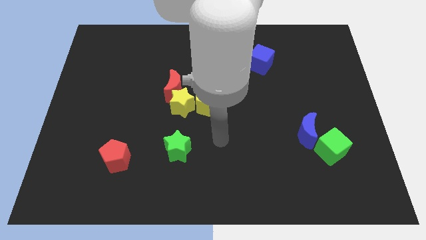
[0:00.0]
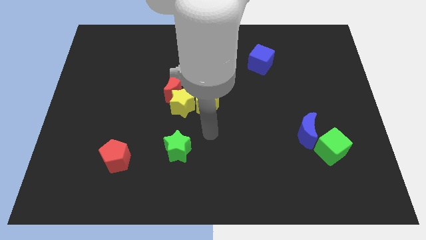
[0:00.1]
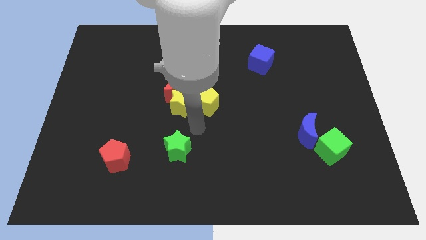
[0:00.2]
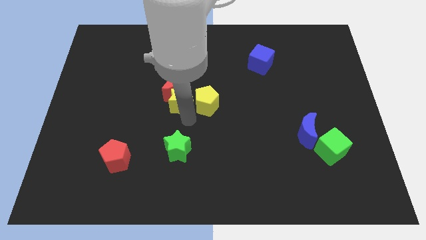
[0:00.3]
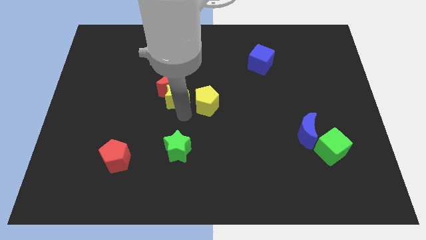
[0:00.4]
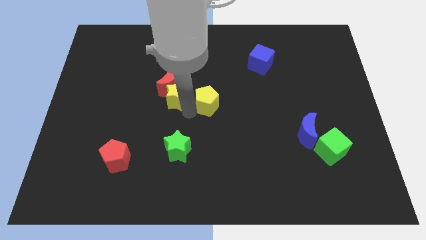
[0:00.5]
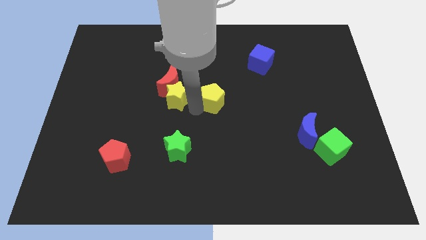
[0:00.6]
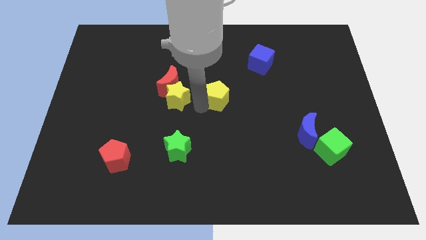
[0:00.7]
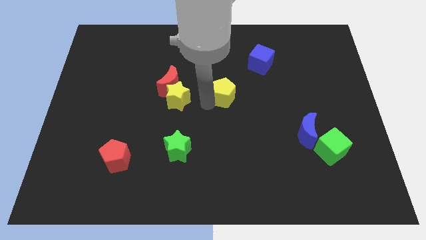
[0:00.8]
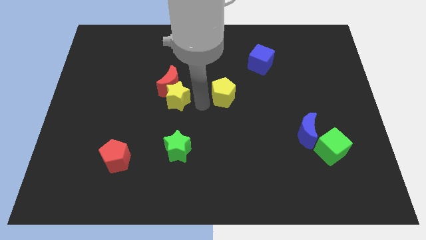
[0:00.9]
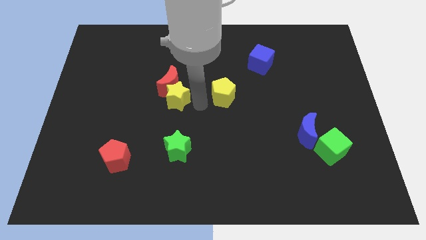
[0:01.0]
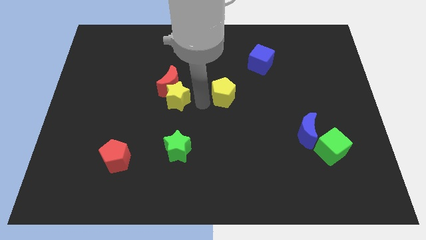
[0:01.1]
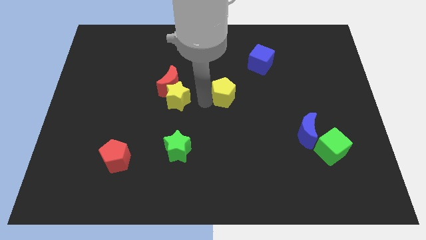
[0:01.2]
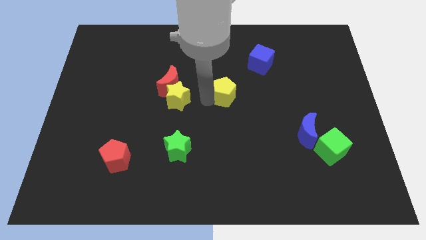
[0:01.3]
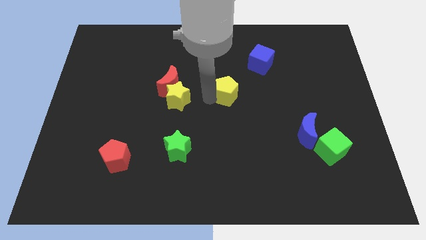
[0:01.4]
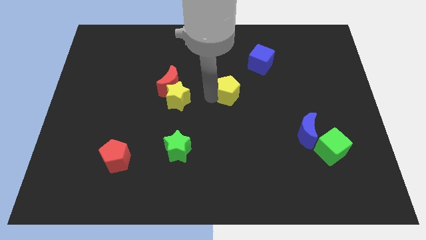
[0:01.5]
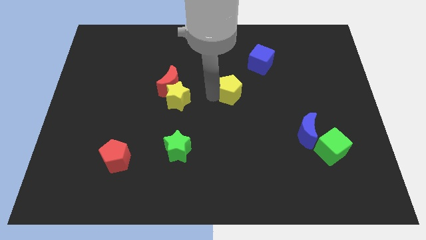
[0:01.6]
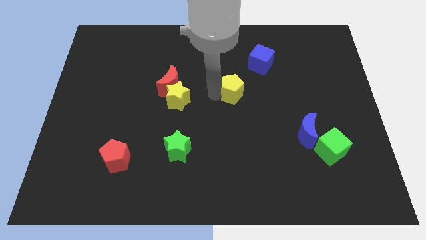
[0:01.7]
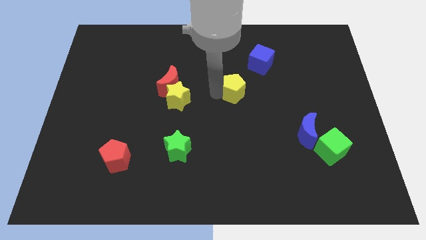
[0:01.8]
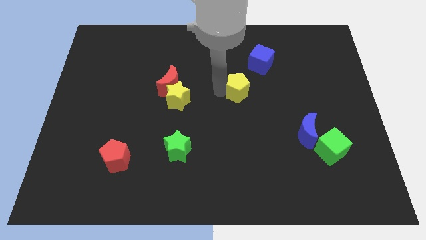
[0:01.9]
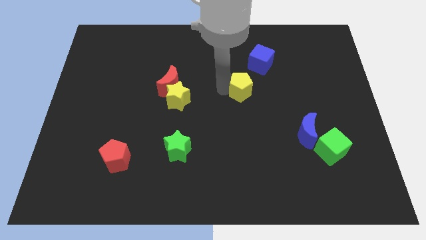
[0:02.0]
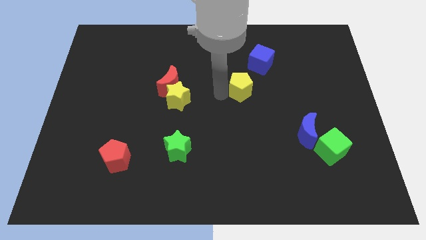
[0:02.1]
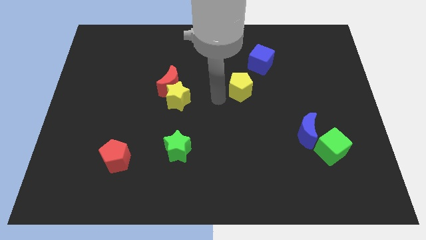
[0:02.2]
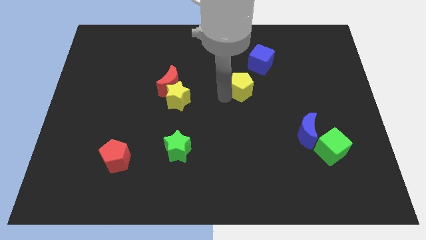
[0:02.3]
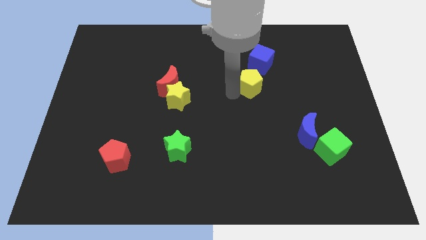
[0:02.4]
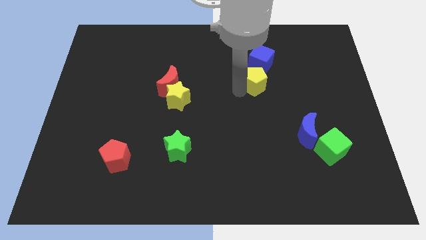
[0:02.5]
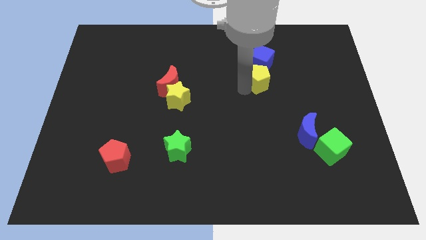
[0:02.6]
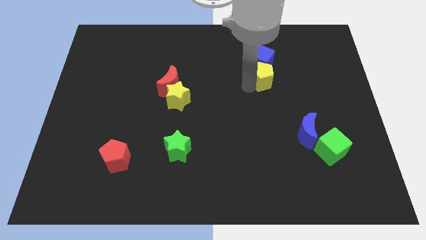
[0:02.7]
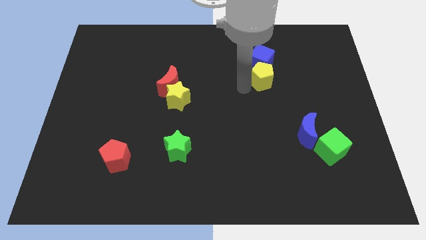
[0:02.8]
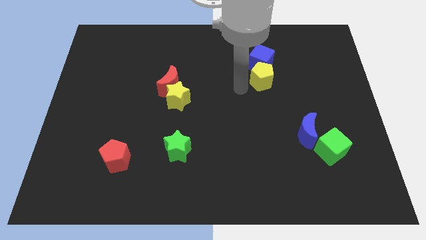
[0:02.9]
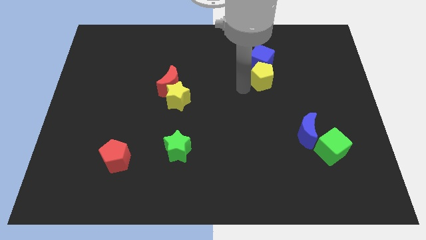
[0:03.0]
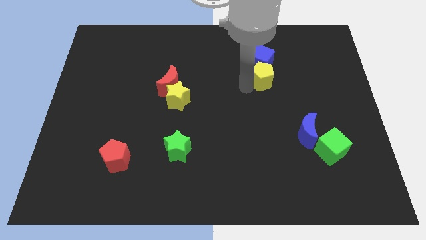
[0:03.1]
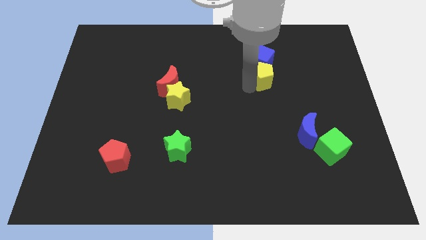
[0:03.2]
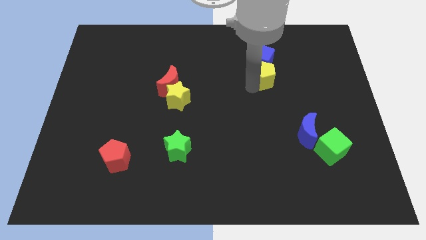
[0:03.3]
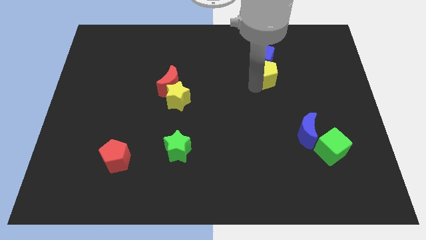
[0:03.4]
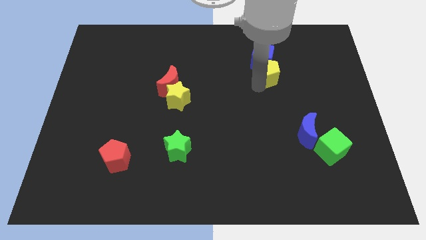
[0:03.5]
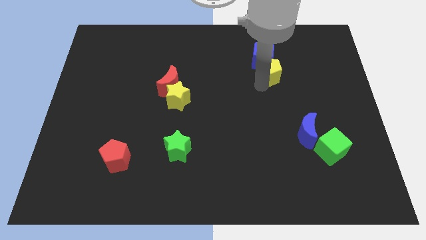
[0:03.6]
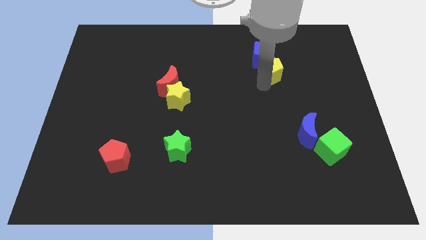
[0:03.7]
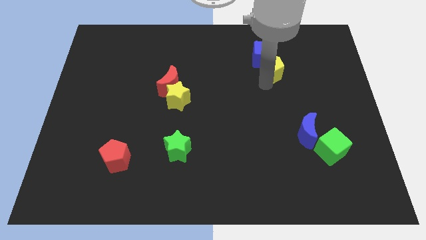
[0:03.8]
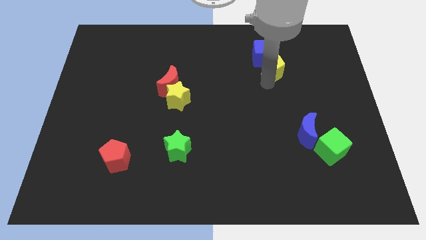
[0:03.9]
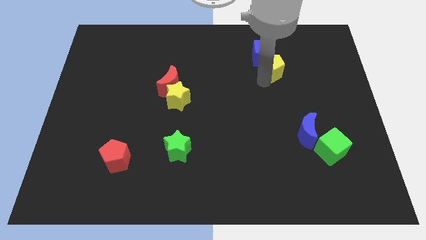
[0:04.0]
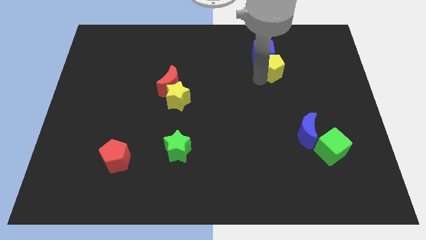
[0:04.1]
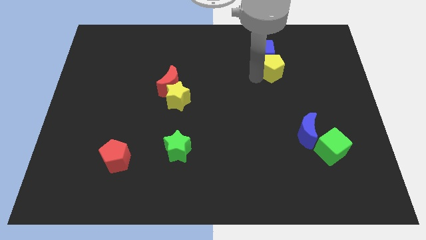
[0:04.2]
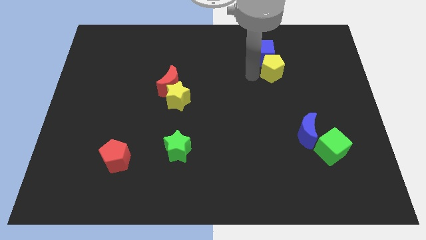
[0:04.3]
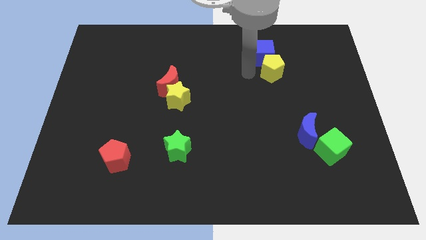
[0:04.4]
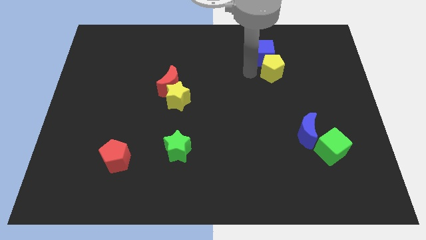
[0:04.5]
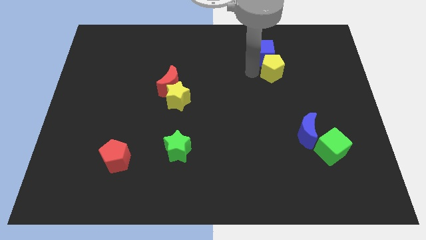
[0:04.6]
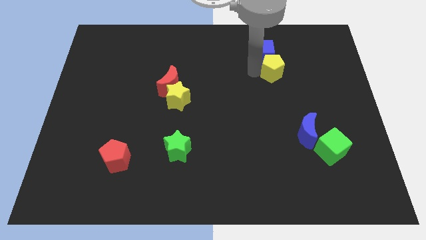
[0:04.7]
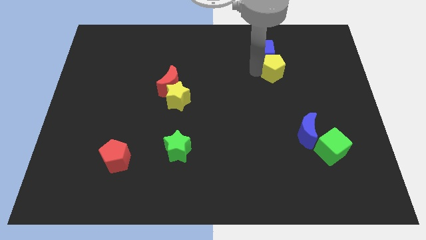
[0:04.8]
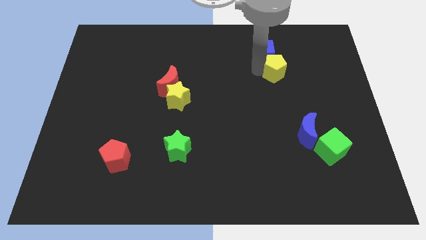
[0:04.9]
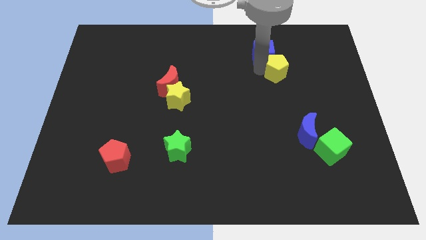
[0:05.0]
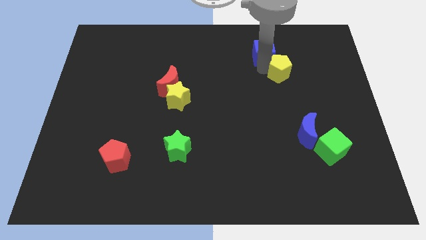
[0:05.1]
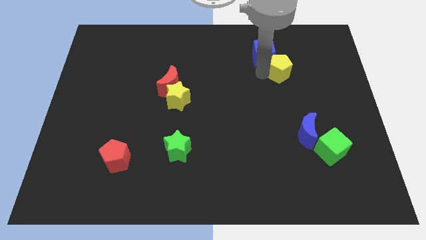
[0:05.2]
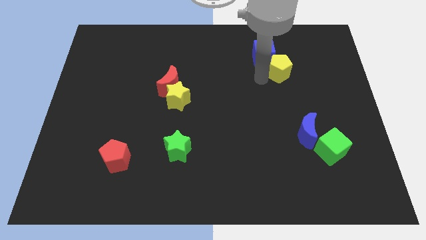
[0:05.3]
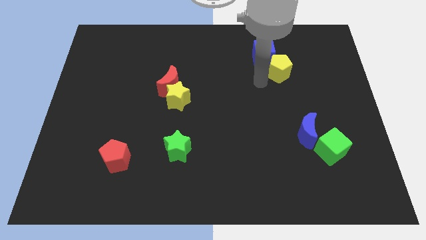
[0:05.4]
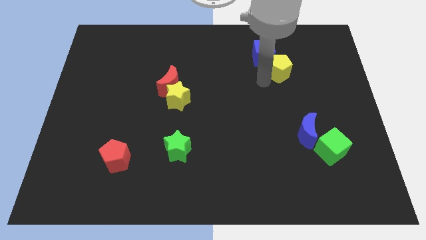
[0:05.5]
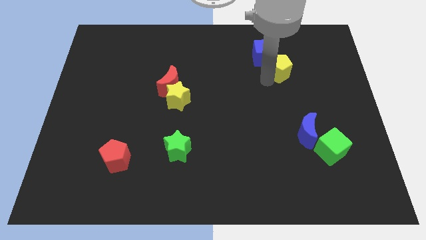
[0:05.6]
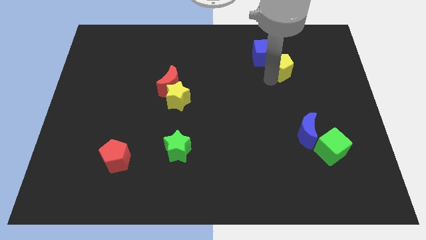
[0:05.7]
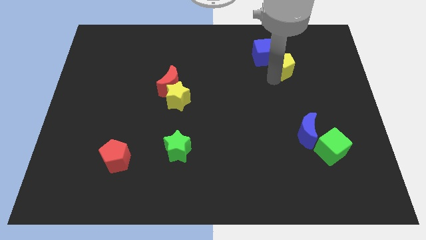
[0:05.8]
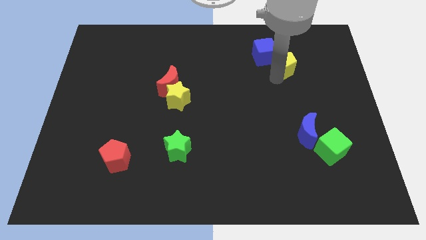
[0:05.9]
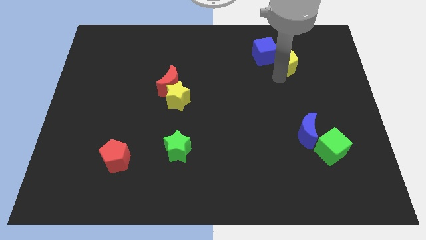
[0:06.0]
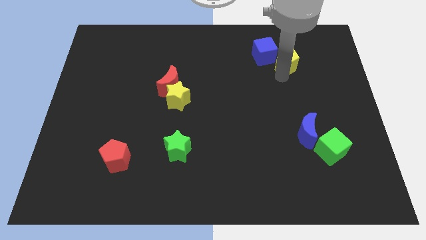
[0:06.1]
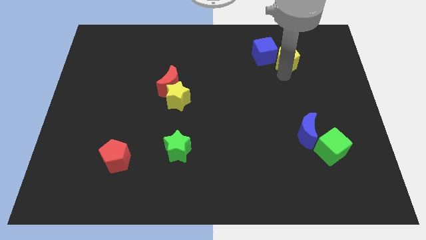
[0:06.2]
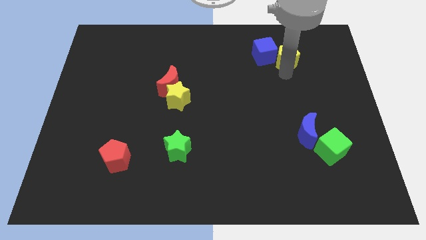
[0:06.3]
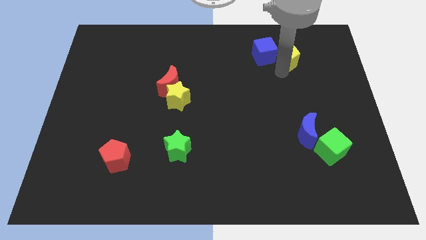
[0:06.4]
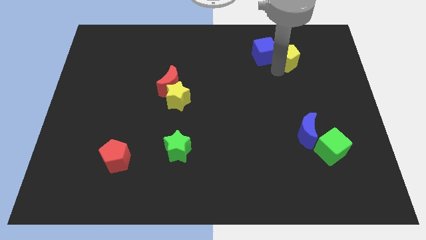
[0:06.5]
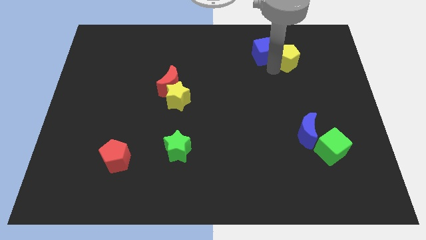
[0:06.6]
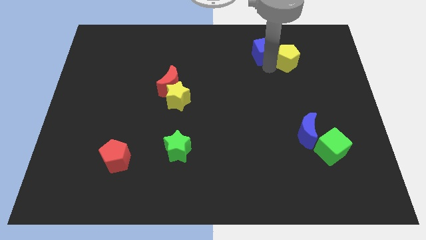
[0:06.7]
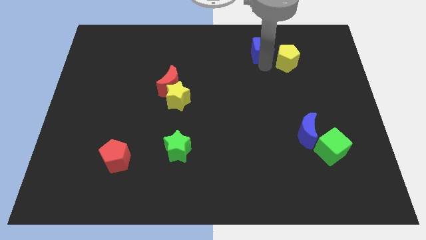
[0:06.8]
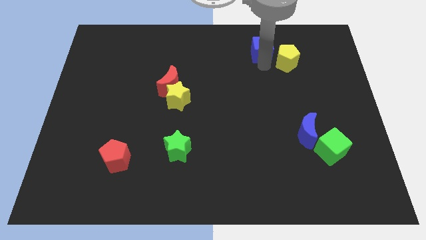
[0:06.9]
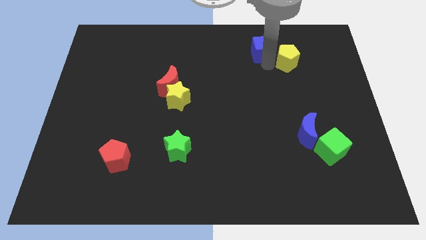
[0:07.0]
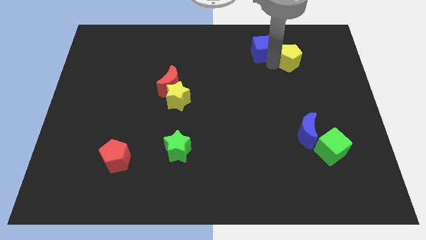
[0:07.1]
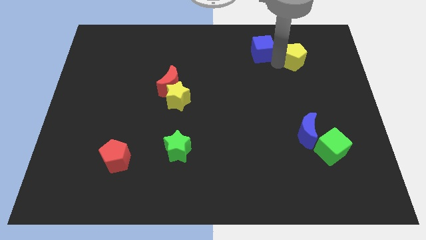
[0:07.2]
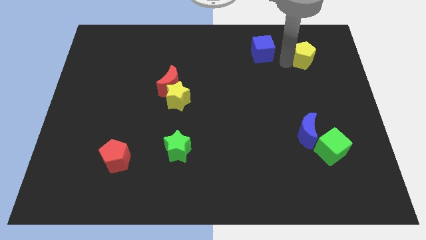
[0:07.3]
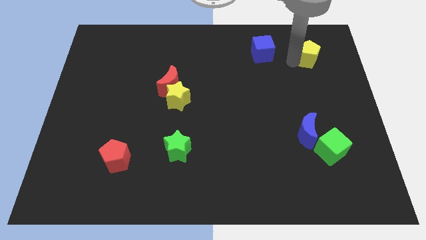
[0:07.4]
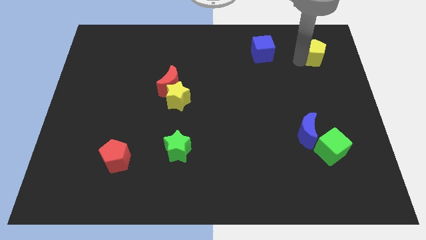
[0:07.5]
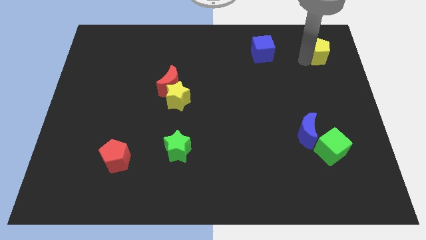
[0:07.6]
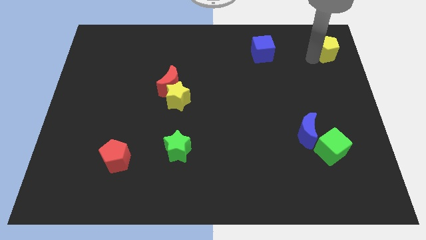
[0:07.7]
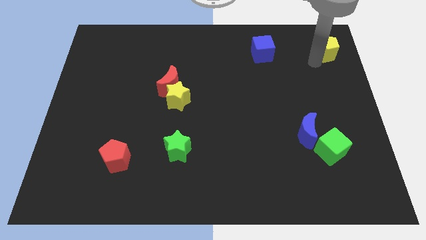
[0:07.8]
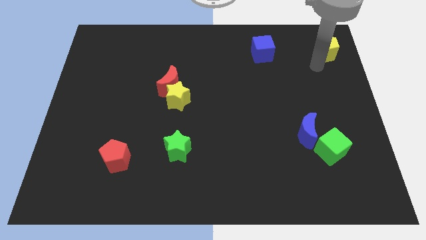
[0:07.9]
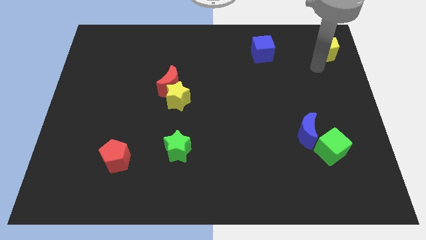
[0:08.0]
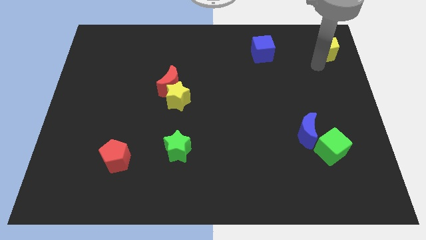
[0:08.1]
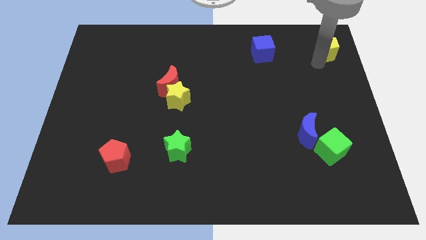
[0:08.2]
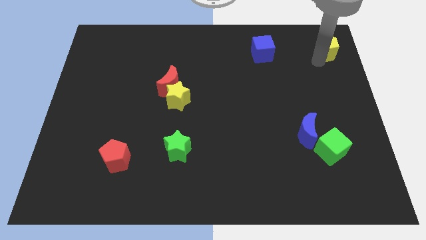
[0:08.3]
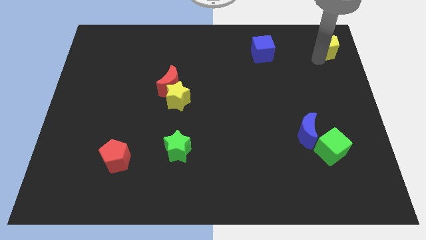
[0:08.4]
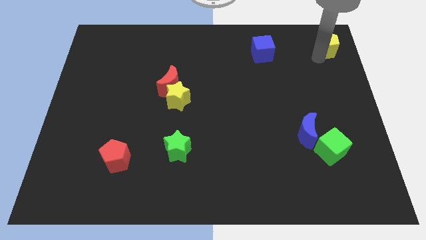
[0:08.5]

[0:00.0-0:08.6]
slide the yellow pentagon to the upper right corner
